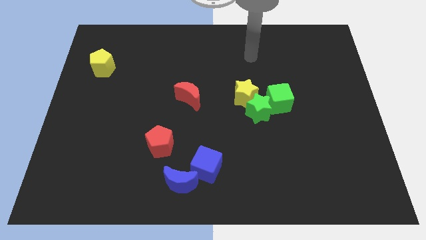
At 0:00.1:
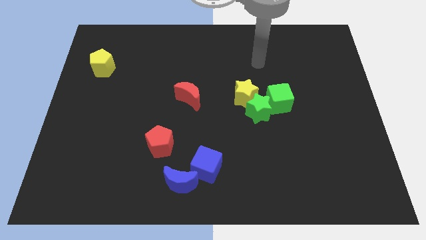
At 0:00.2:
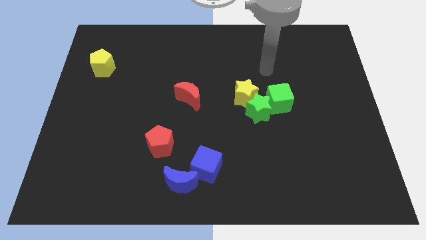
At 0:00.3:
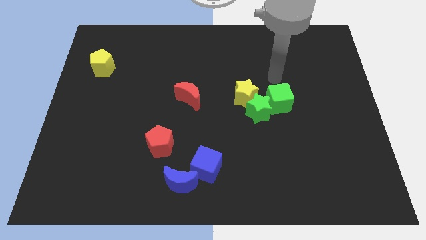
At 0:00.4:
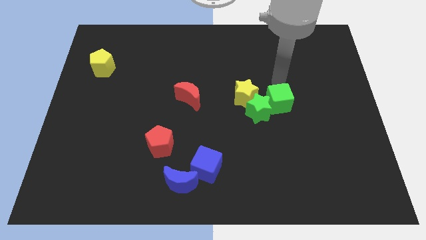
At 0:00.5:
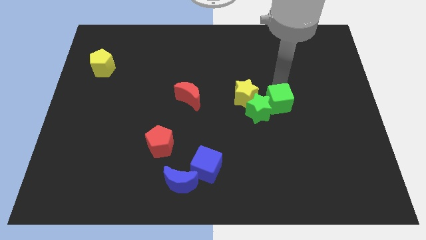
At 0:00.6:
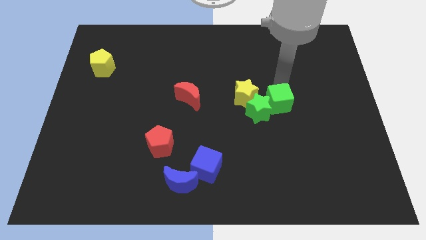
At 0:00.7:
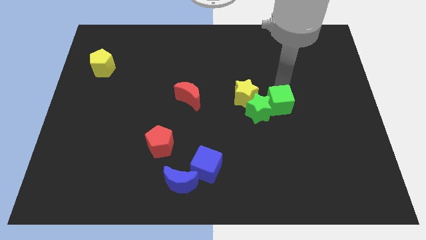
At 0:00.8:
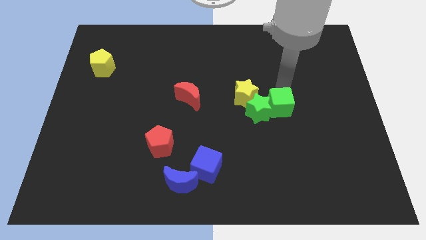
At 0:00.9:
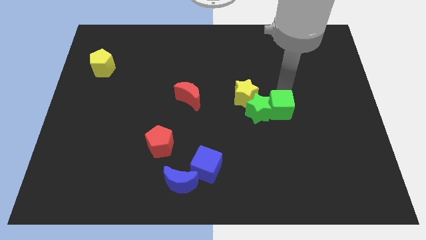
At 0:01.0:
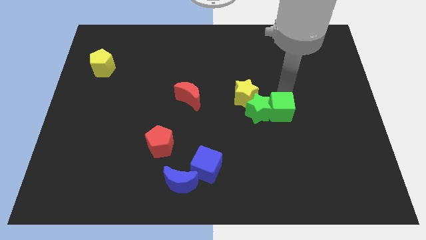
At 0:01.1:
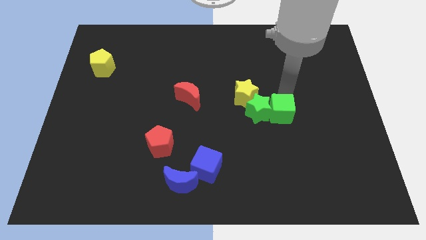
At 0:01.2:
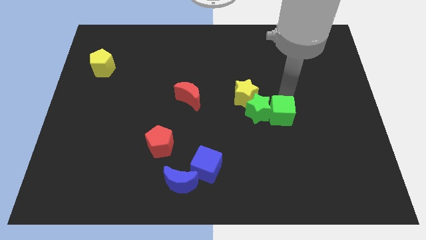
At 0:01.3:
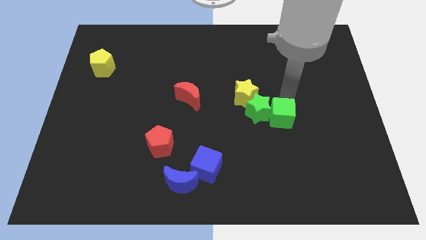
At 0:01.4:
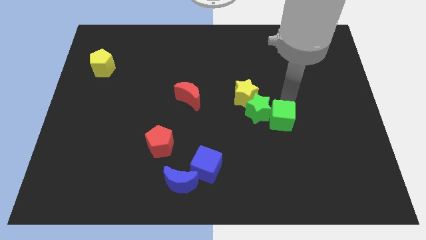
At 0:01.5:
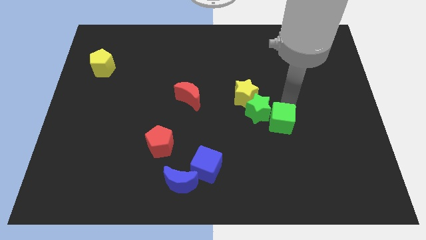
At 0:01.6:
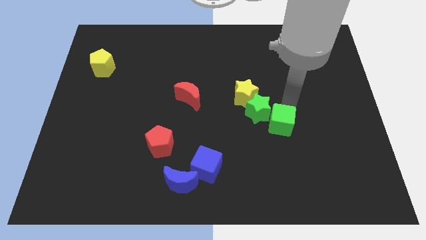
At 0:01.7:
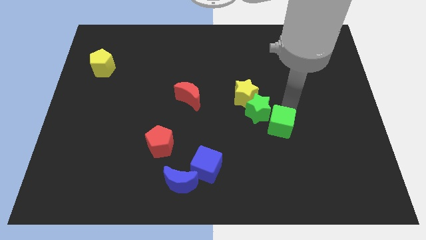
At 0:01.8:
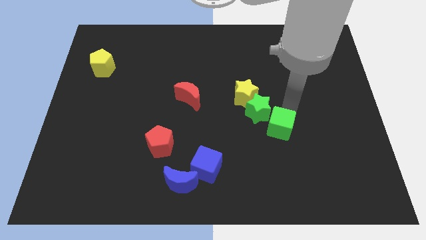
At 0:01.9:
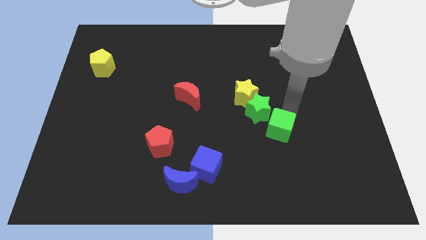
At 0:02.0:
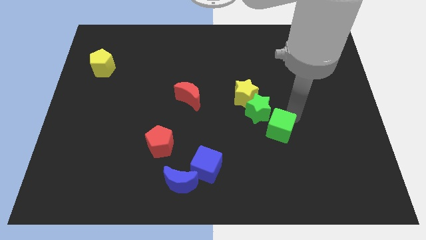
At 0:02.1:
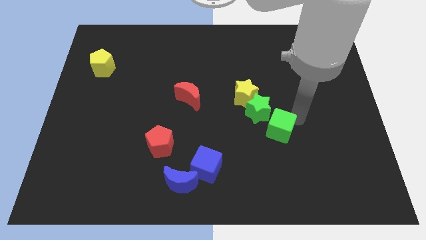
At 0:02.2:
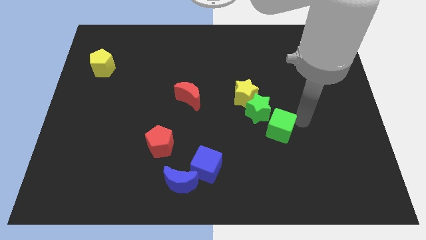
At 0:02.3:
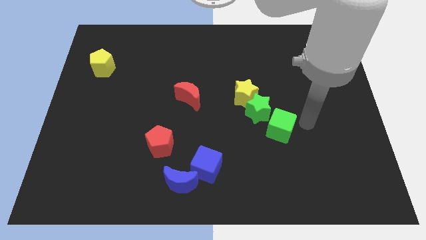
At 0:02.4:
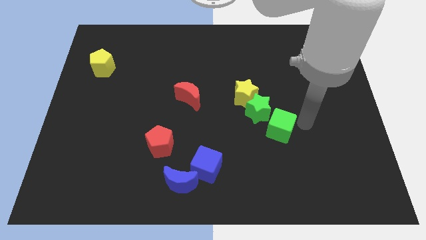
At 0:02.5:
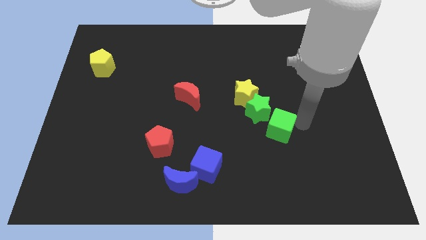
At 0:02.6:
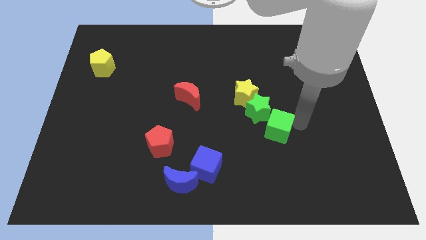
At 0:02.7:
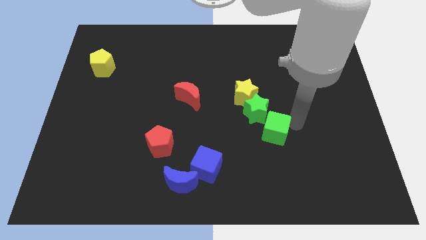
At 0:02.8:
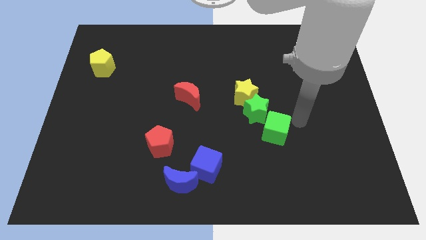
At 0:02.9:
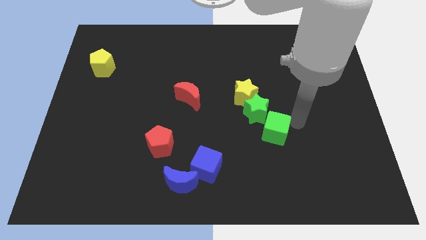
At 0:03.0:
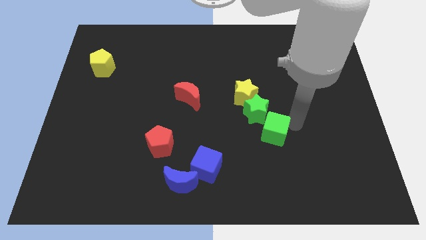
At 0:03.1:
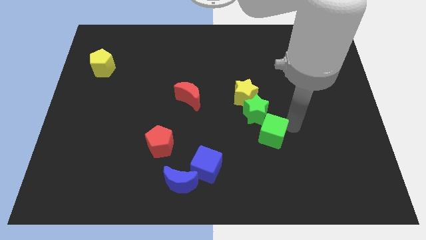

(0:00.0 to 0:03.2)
move the green cube a little diagonally downwards and to the left

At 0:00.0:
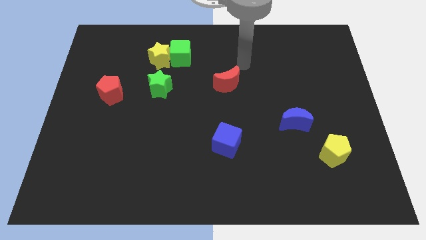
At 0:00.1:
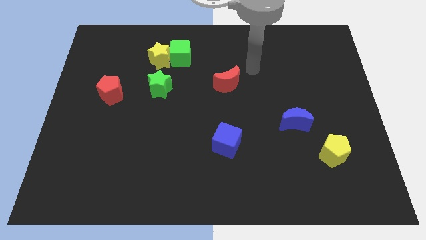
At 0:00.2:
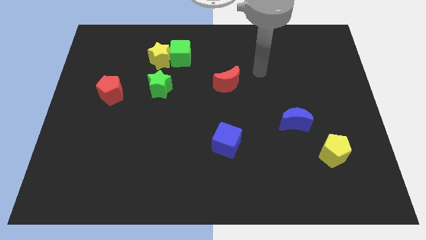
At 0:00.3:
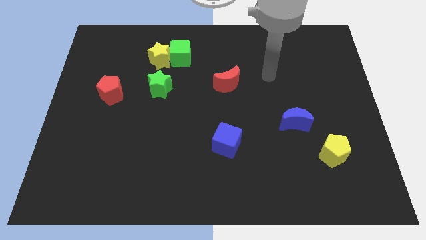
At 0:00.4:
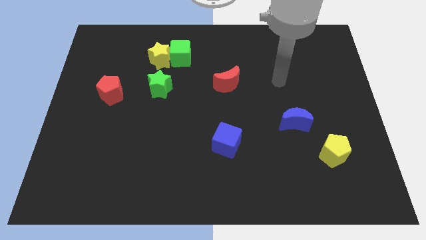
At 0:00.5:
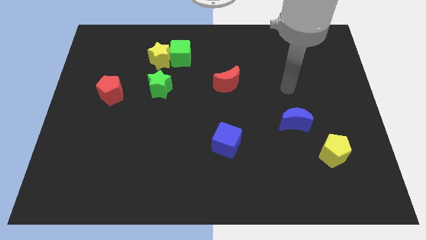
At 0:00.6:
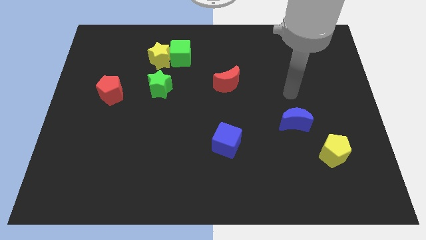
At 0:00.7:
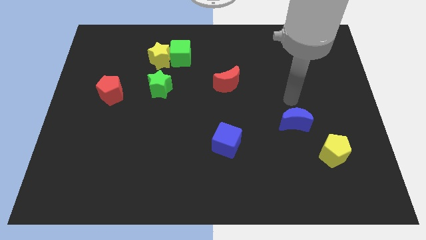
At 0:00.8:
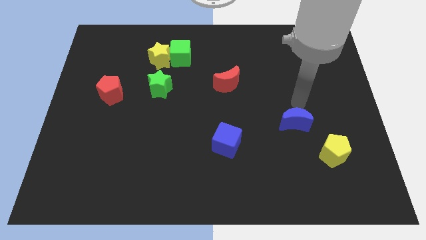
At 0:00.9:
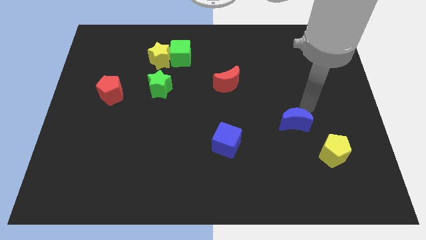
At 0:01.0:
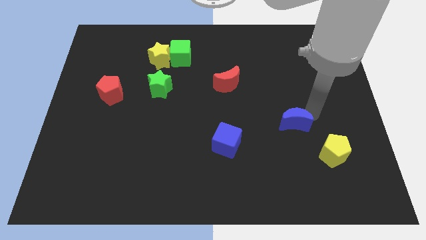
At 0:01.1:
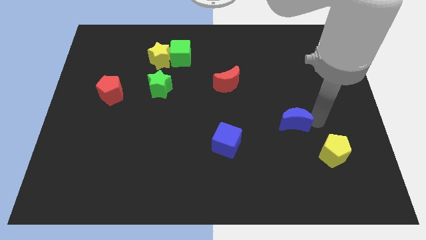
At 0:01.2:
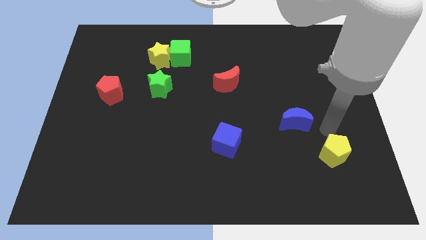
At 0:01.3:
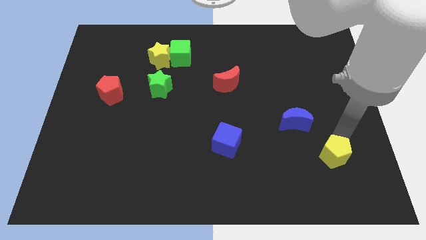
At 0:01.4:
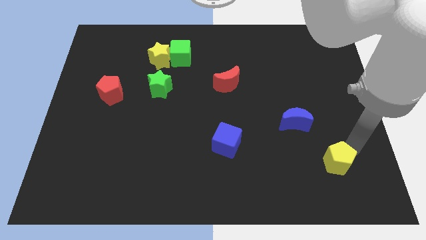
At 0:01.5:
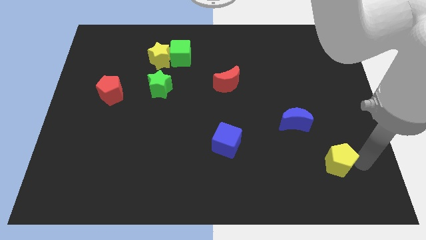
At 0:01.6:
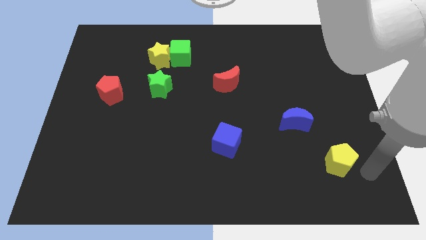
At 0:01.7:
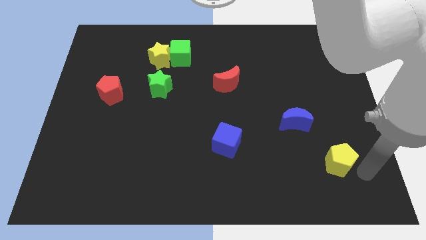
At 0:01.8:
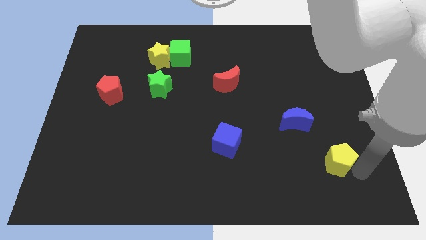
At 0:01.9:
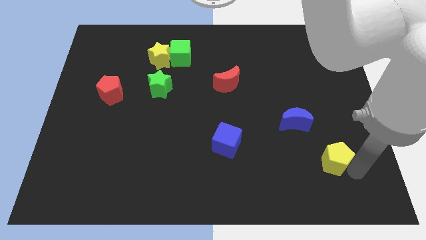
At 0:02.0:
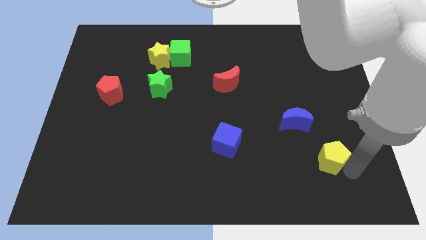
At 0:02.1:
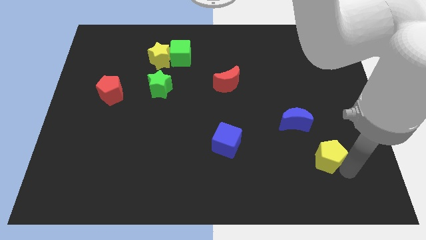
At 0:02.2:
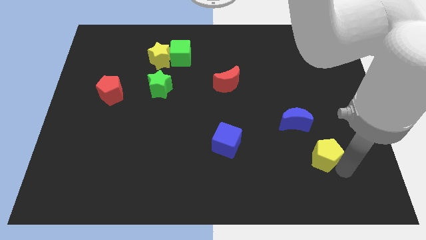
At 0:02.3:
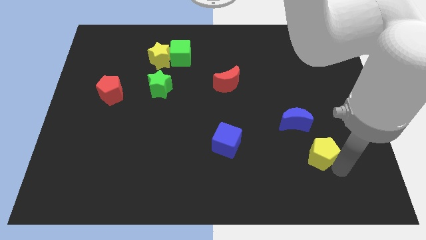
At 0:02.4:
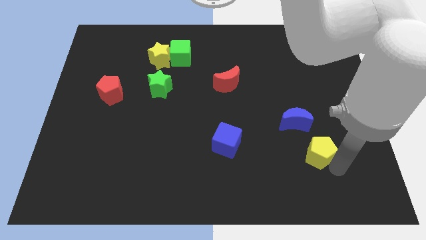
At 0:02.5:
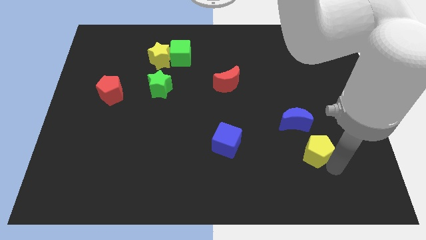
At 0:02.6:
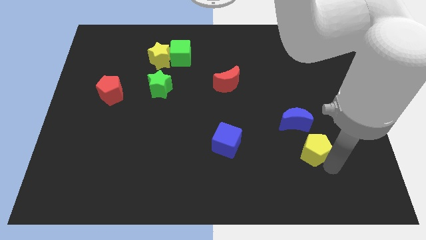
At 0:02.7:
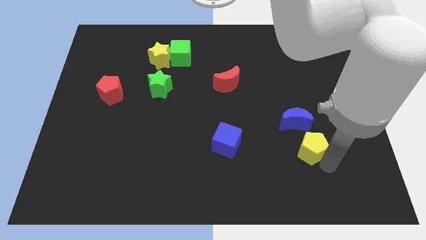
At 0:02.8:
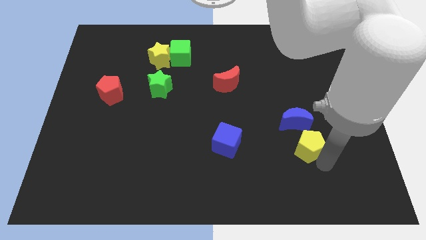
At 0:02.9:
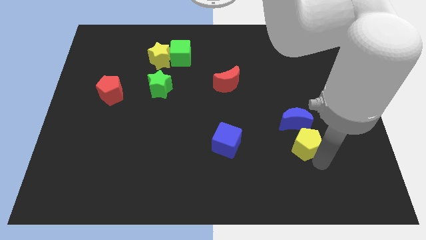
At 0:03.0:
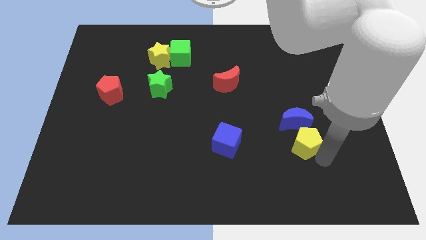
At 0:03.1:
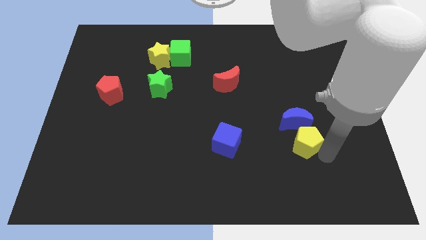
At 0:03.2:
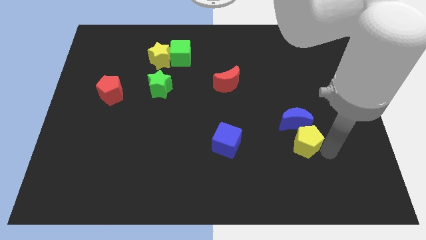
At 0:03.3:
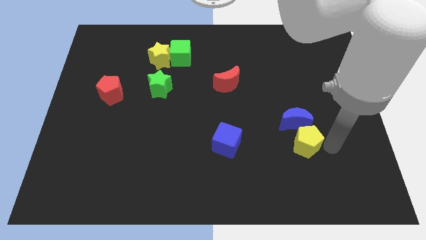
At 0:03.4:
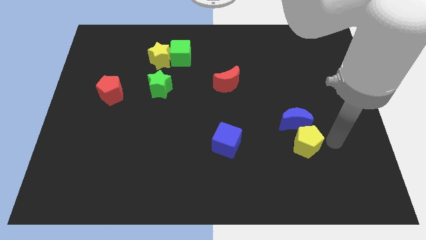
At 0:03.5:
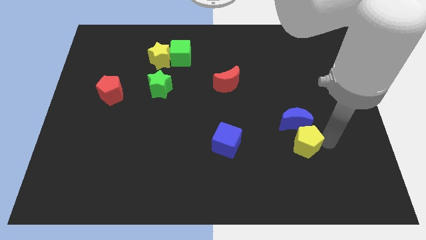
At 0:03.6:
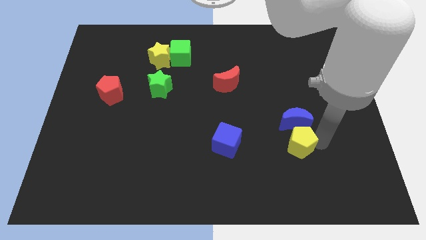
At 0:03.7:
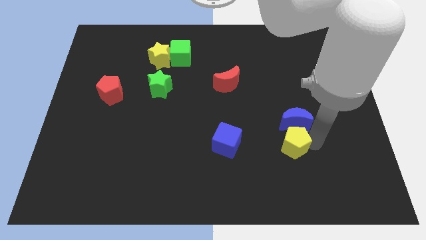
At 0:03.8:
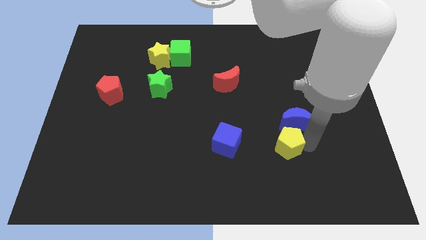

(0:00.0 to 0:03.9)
slightly slide the yellow pentagon up and to the left diagonally

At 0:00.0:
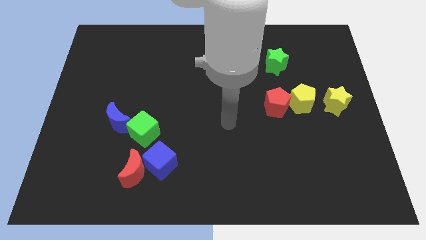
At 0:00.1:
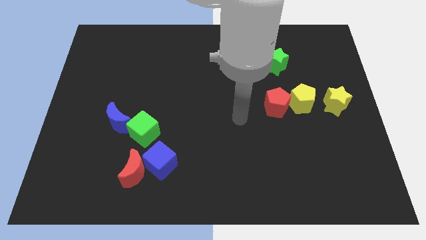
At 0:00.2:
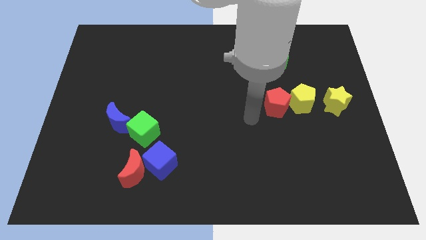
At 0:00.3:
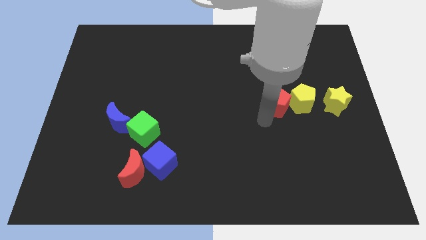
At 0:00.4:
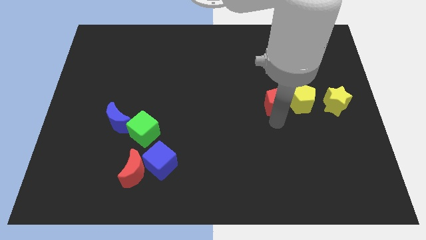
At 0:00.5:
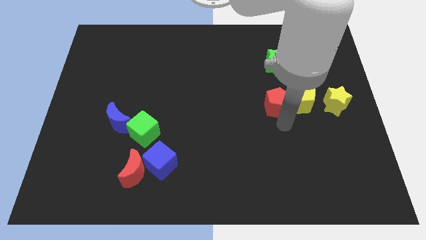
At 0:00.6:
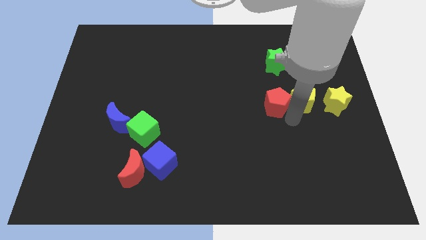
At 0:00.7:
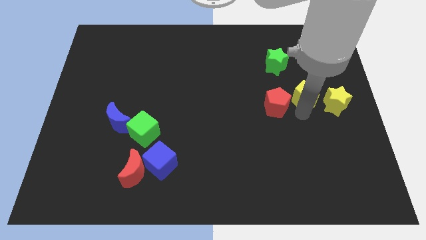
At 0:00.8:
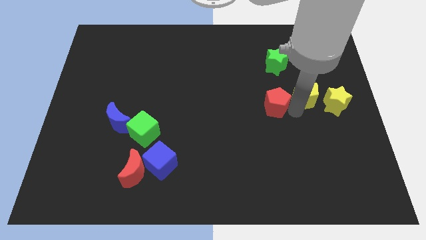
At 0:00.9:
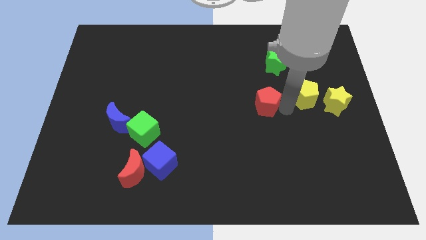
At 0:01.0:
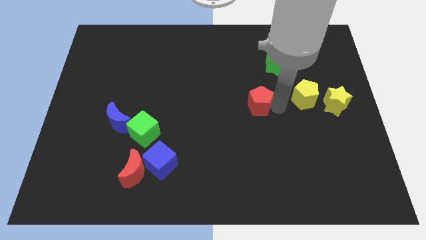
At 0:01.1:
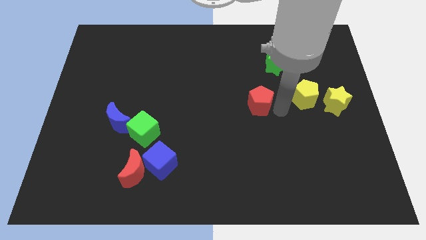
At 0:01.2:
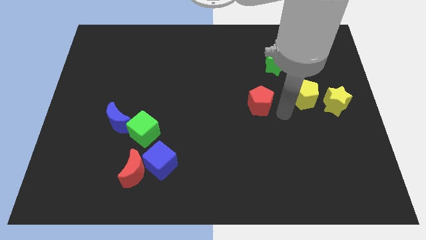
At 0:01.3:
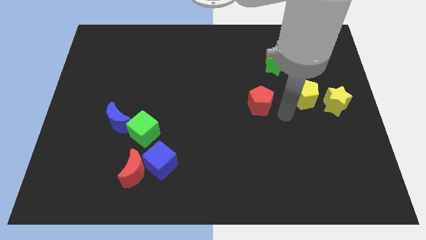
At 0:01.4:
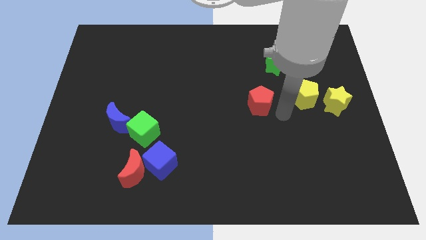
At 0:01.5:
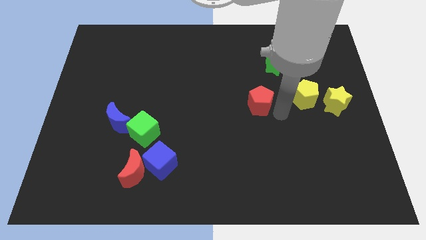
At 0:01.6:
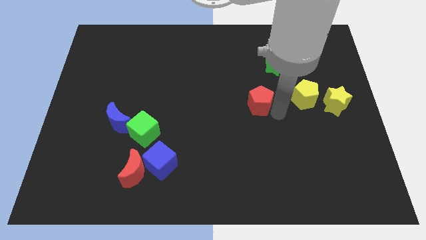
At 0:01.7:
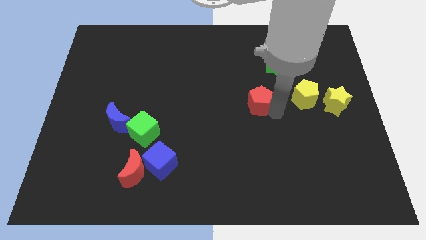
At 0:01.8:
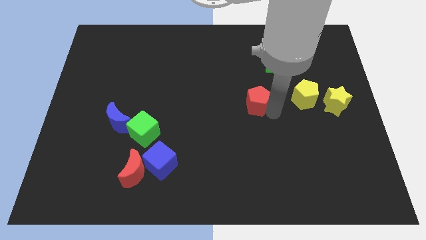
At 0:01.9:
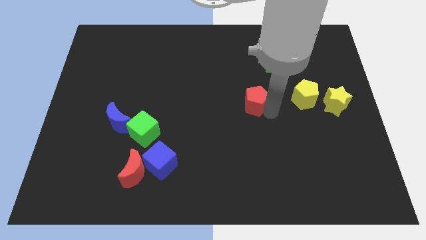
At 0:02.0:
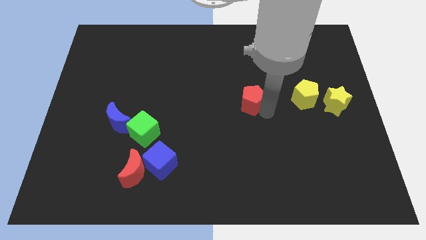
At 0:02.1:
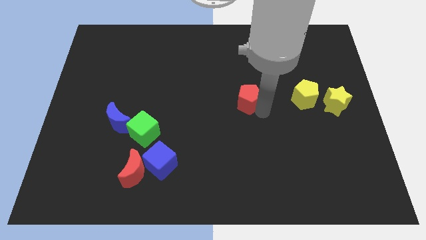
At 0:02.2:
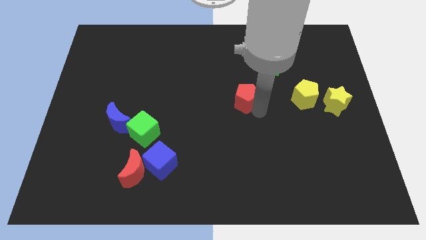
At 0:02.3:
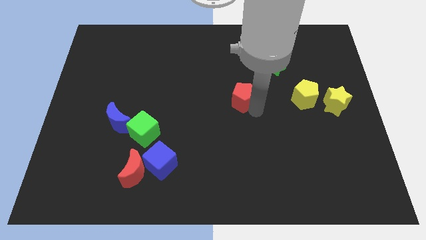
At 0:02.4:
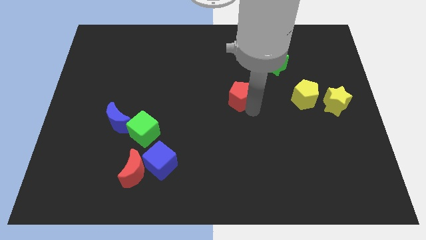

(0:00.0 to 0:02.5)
push the red pentagon slightly upwards and then to the left
